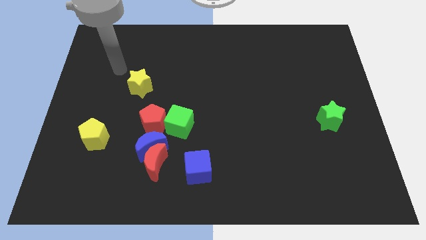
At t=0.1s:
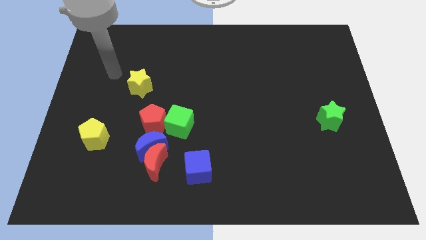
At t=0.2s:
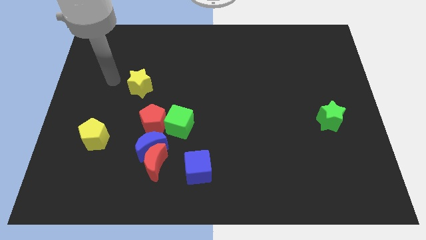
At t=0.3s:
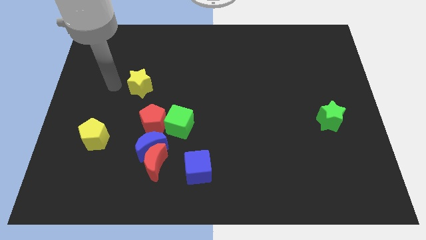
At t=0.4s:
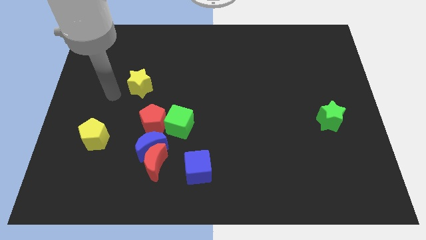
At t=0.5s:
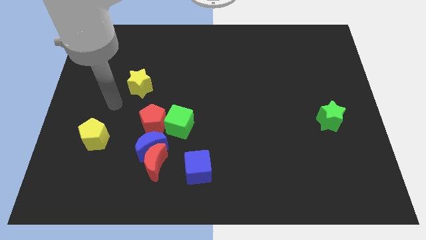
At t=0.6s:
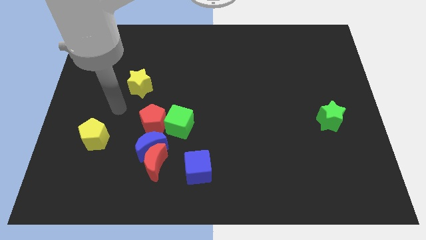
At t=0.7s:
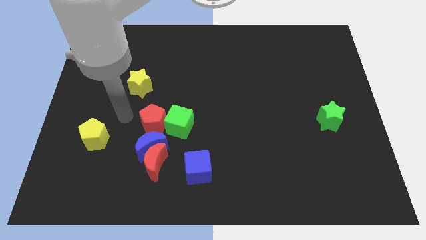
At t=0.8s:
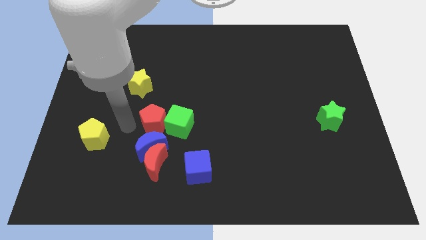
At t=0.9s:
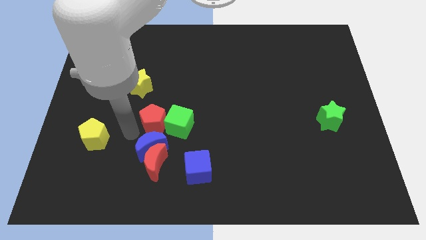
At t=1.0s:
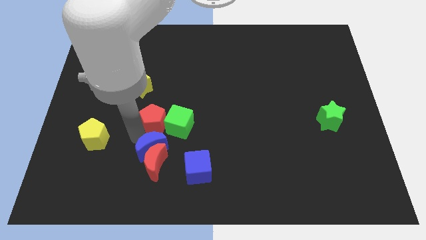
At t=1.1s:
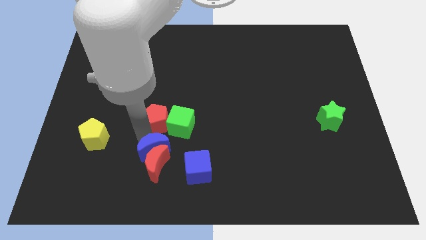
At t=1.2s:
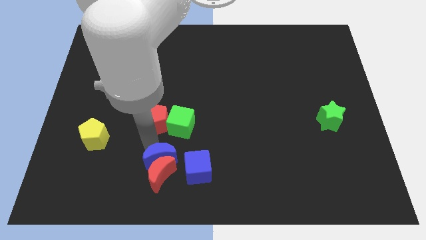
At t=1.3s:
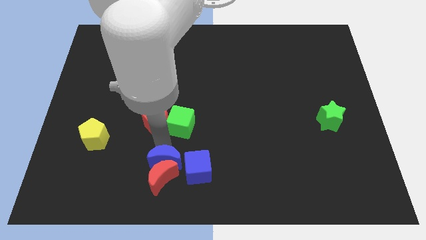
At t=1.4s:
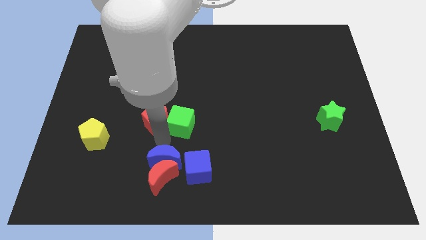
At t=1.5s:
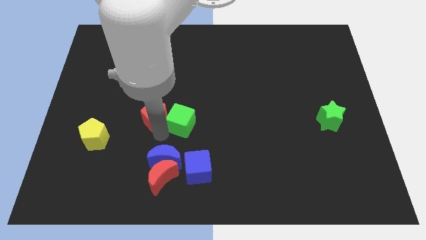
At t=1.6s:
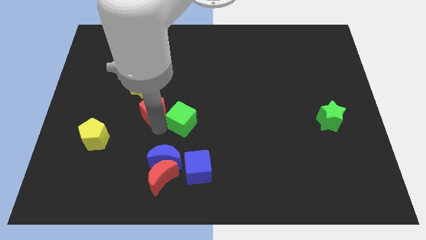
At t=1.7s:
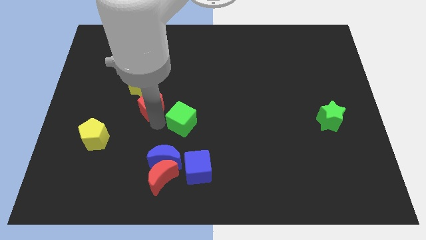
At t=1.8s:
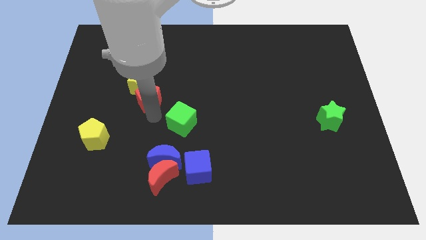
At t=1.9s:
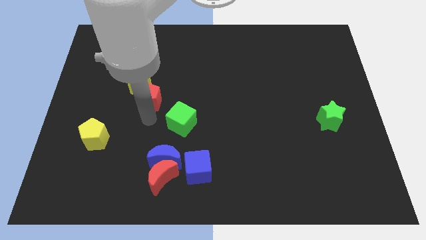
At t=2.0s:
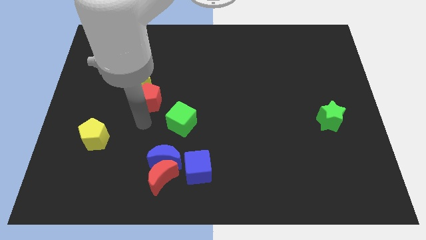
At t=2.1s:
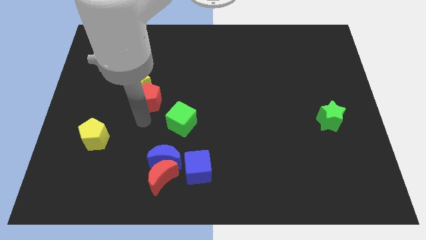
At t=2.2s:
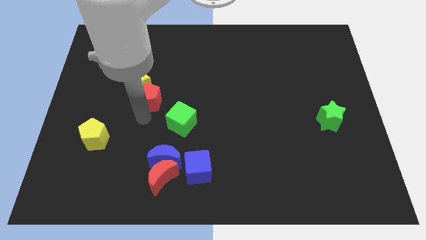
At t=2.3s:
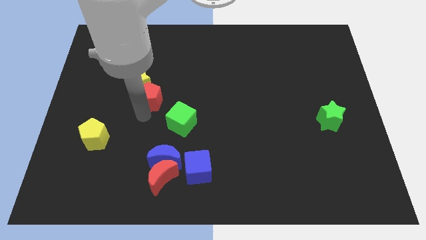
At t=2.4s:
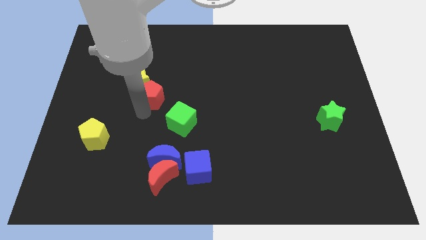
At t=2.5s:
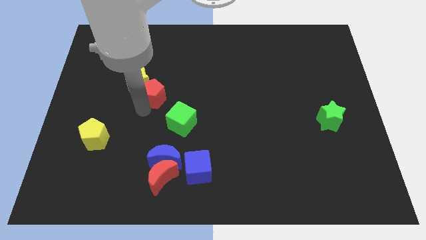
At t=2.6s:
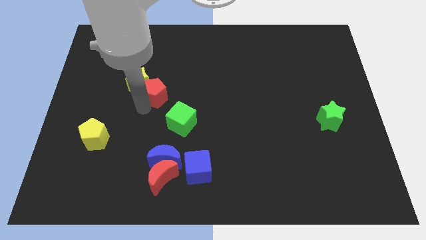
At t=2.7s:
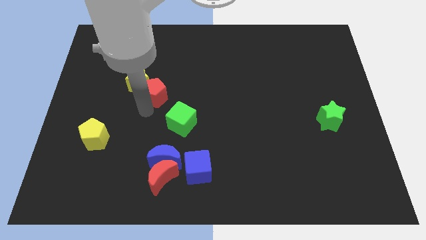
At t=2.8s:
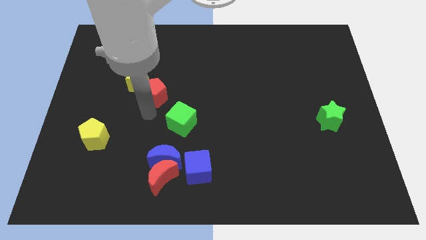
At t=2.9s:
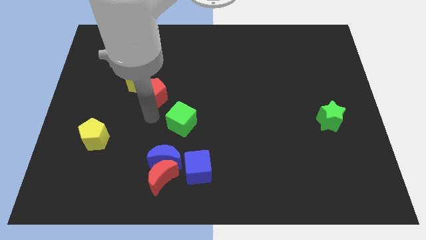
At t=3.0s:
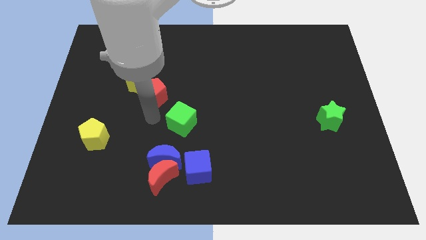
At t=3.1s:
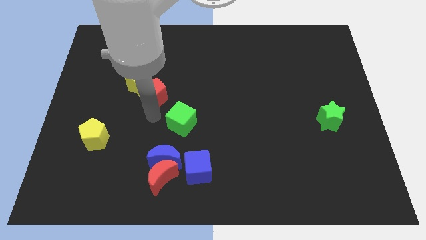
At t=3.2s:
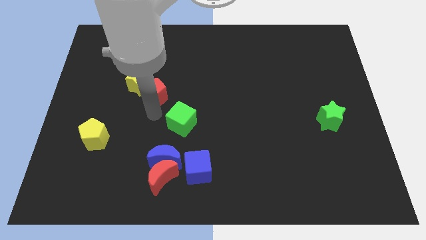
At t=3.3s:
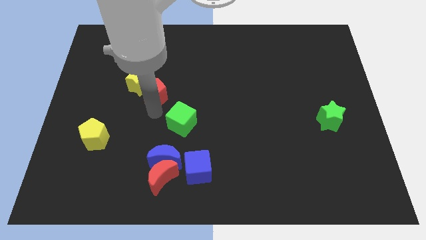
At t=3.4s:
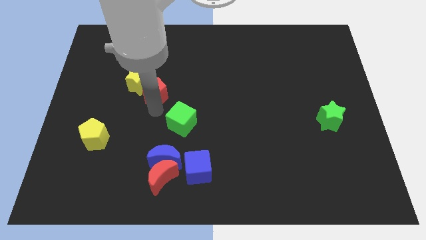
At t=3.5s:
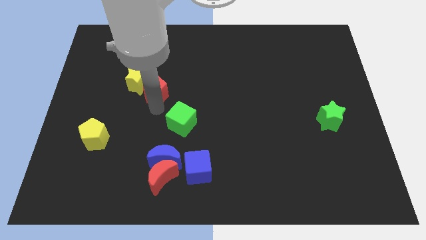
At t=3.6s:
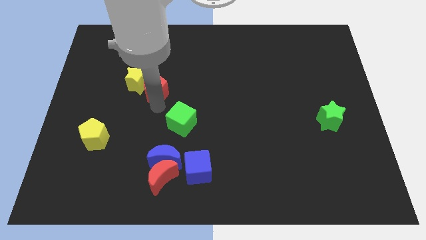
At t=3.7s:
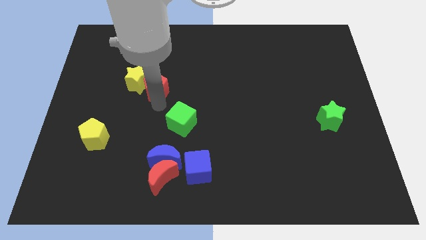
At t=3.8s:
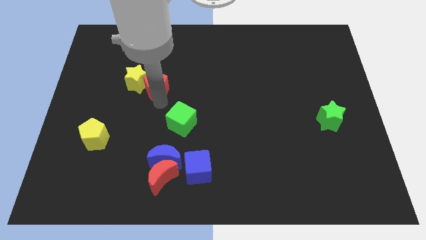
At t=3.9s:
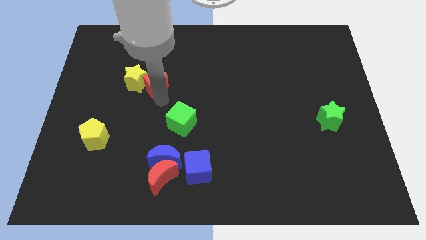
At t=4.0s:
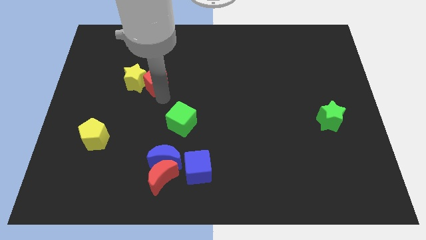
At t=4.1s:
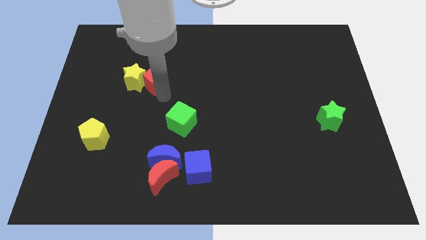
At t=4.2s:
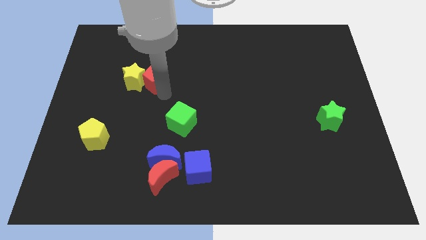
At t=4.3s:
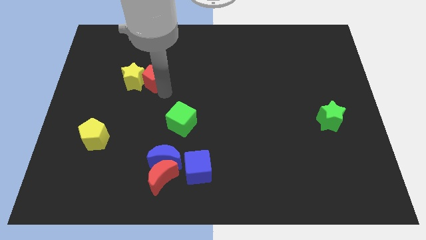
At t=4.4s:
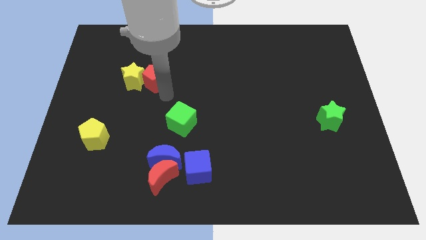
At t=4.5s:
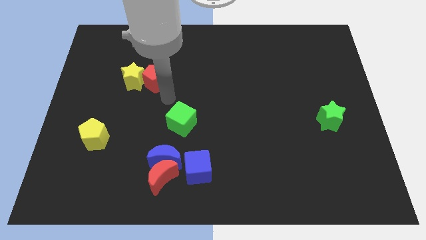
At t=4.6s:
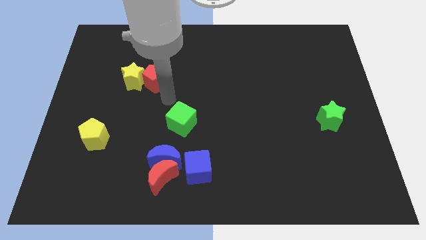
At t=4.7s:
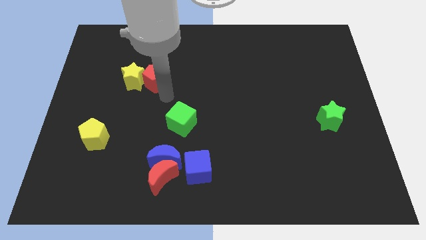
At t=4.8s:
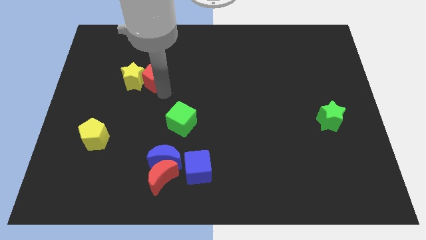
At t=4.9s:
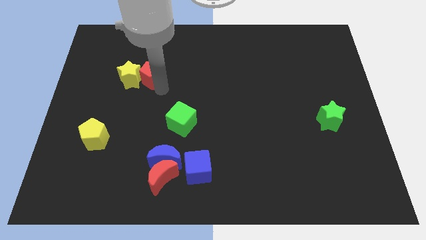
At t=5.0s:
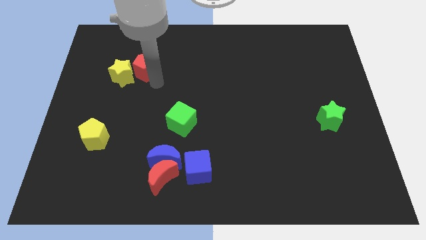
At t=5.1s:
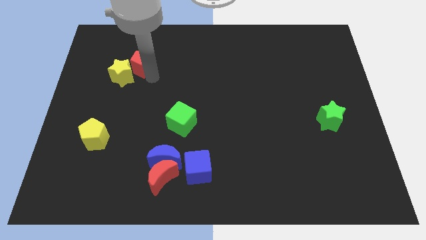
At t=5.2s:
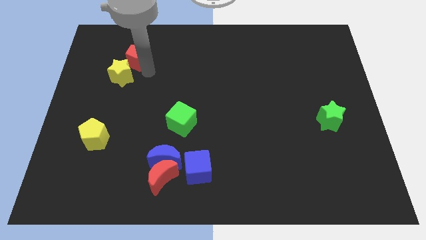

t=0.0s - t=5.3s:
move the red pentagon above the yellow star

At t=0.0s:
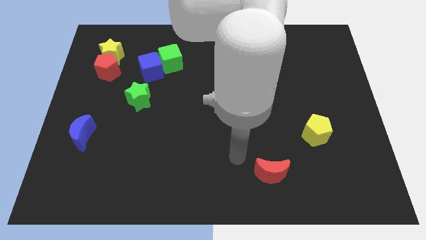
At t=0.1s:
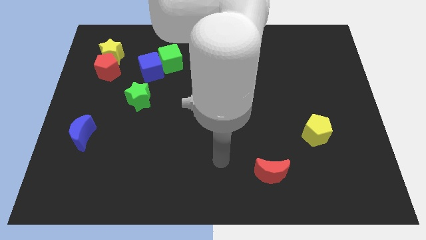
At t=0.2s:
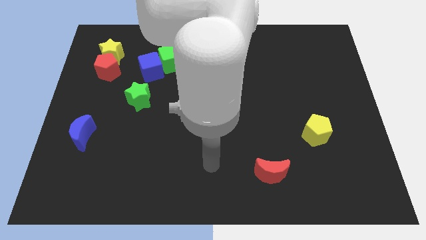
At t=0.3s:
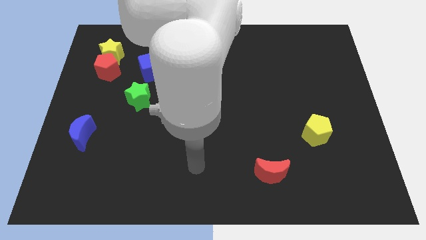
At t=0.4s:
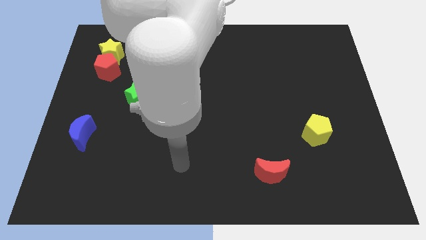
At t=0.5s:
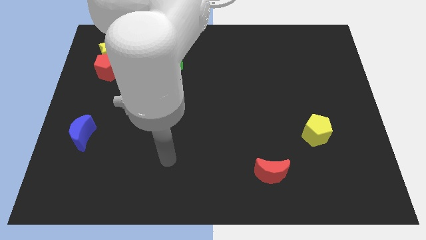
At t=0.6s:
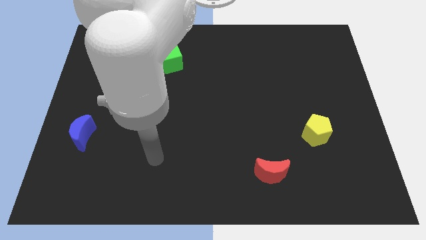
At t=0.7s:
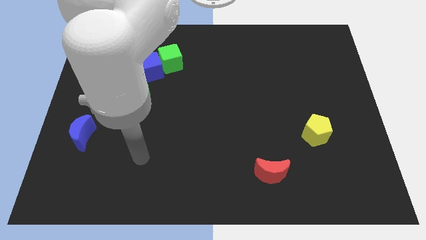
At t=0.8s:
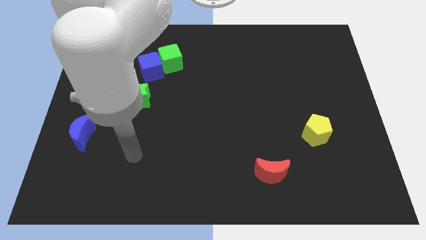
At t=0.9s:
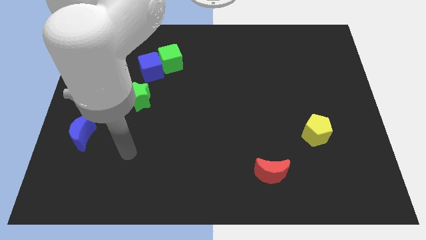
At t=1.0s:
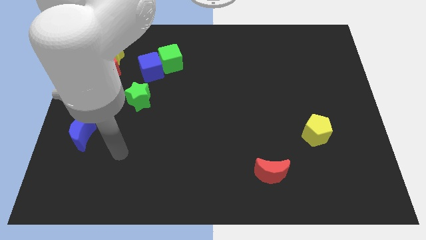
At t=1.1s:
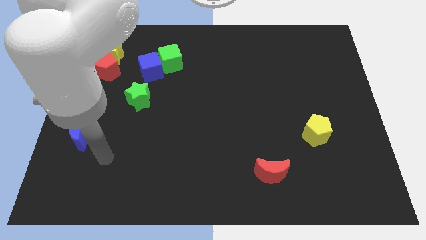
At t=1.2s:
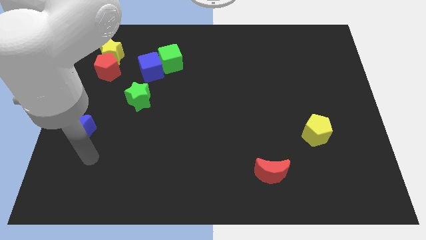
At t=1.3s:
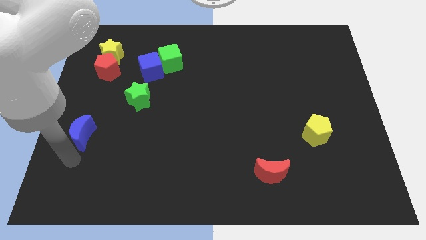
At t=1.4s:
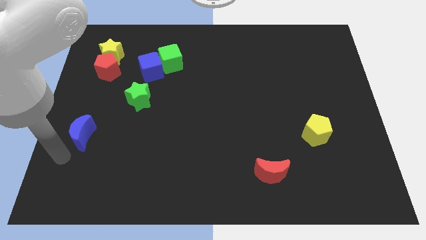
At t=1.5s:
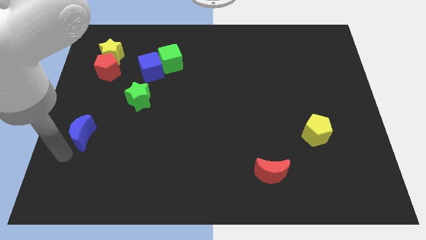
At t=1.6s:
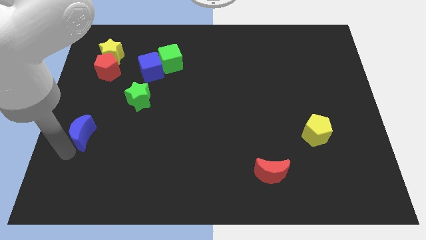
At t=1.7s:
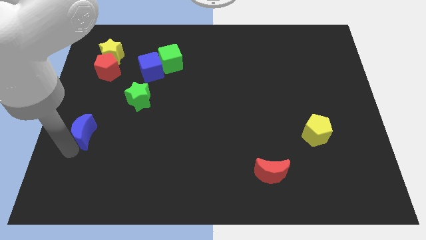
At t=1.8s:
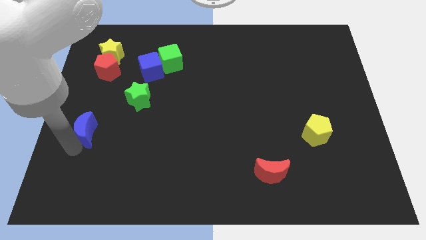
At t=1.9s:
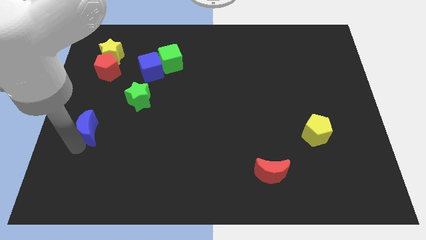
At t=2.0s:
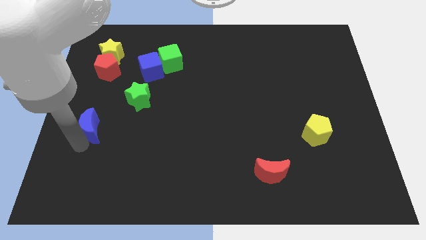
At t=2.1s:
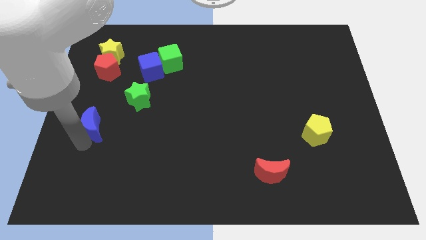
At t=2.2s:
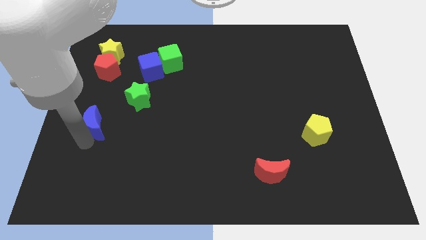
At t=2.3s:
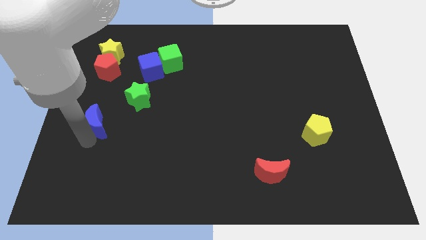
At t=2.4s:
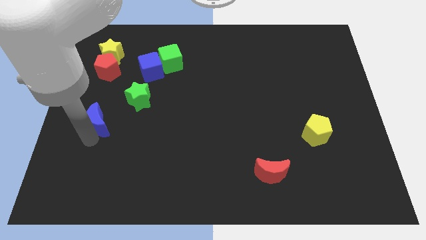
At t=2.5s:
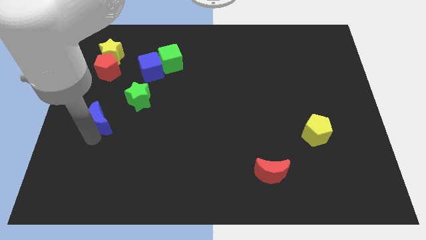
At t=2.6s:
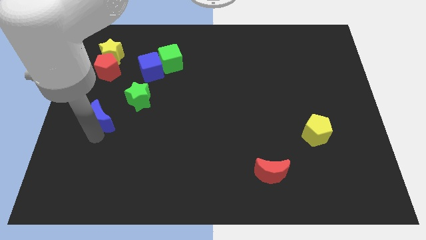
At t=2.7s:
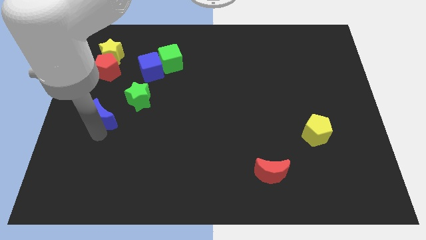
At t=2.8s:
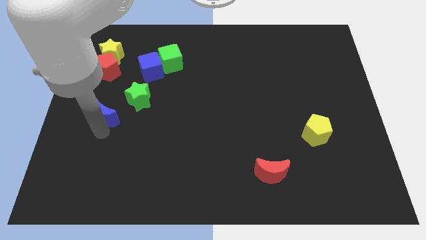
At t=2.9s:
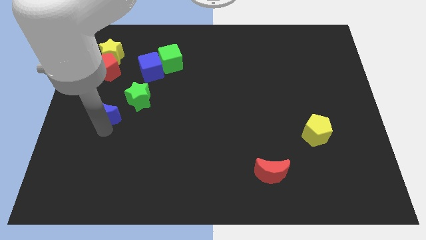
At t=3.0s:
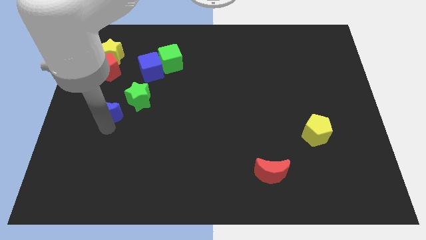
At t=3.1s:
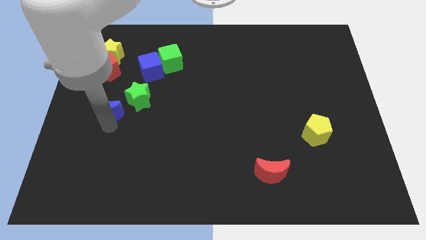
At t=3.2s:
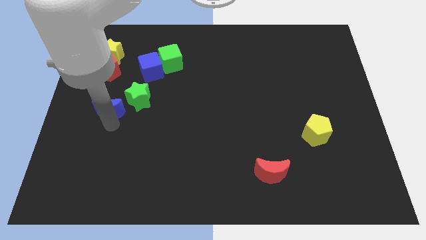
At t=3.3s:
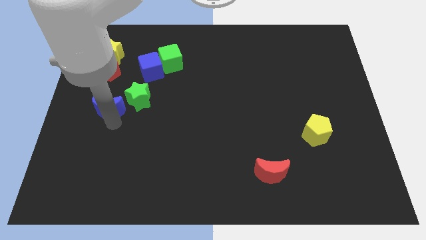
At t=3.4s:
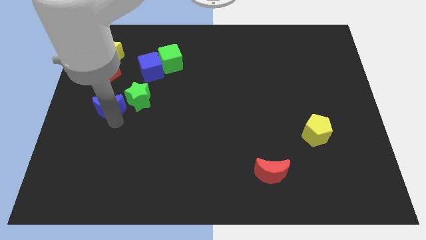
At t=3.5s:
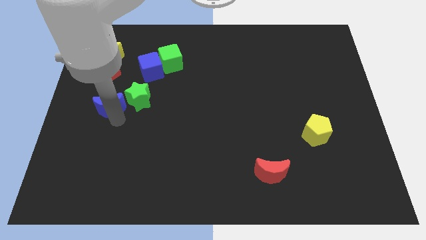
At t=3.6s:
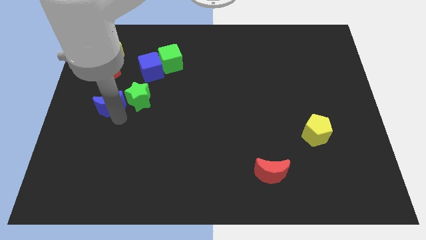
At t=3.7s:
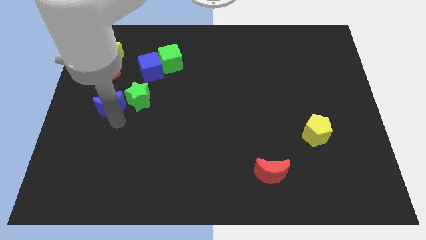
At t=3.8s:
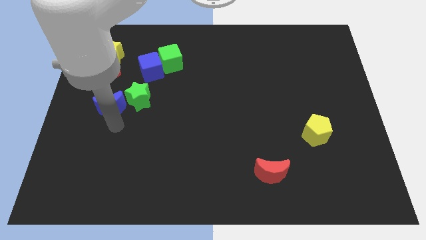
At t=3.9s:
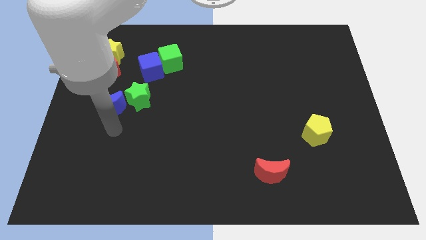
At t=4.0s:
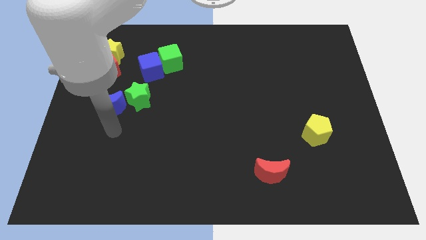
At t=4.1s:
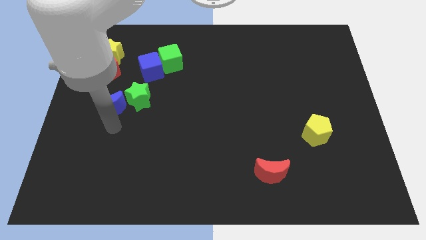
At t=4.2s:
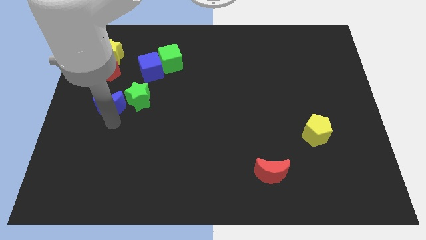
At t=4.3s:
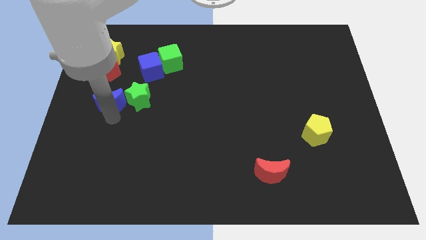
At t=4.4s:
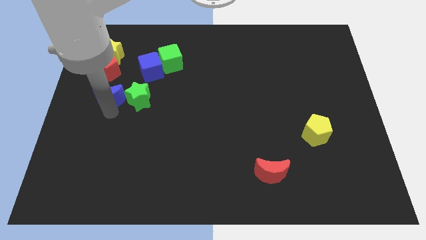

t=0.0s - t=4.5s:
push the blue moon to the top left side of the green star
